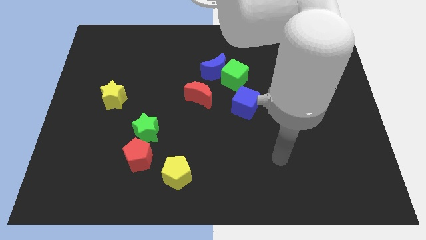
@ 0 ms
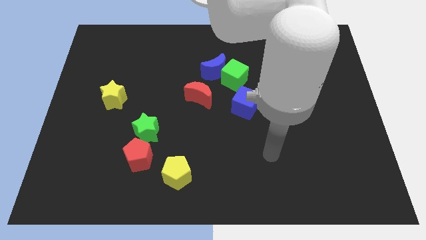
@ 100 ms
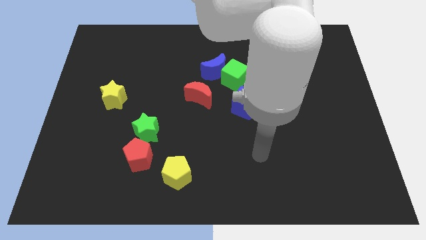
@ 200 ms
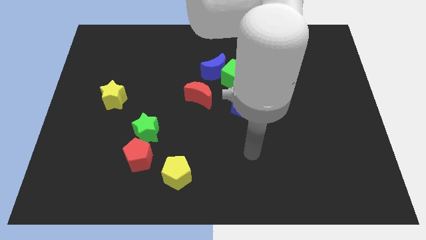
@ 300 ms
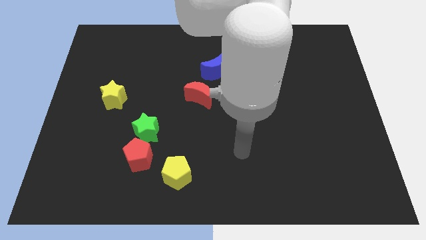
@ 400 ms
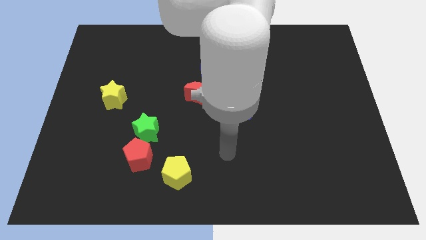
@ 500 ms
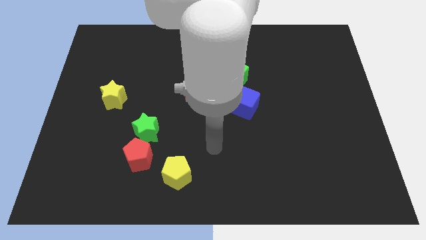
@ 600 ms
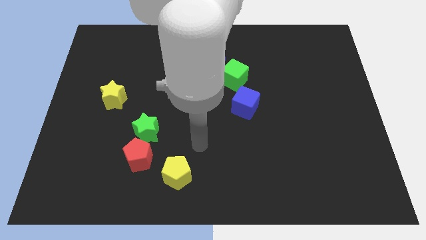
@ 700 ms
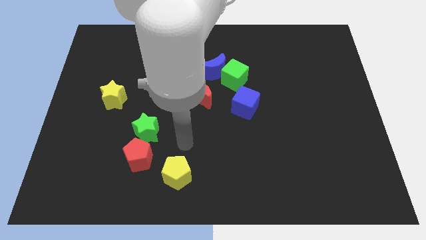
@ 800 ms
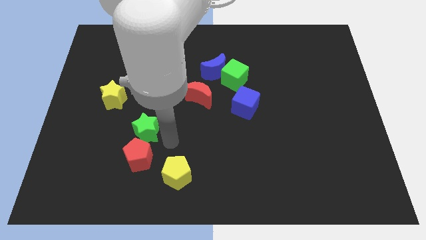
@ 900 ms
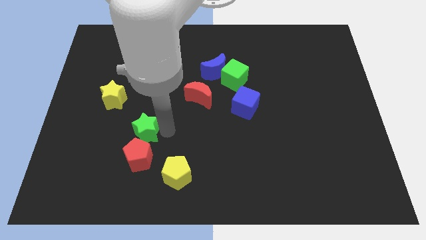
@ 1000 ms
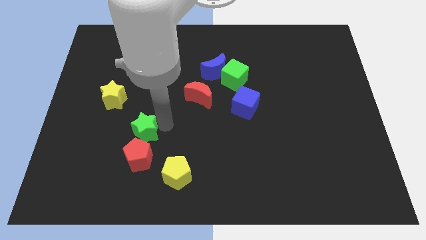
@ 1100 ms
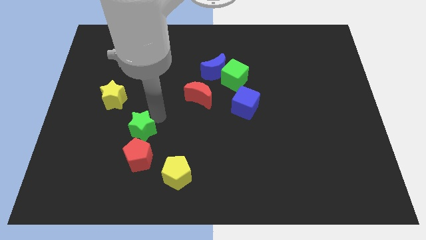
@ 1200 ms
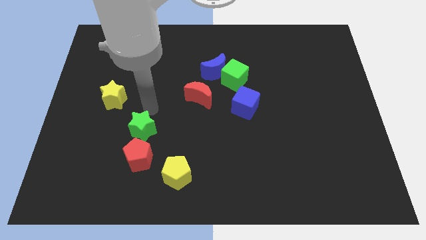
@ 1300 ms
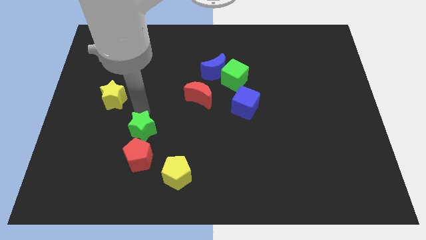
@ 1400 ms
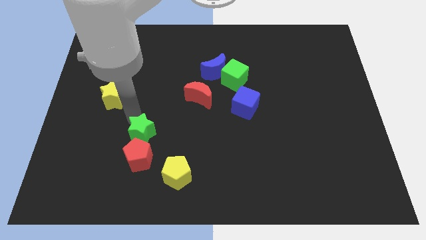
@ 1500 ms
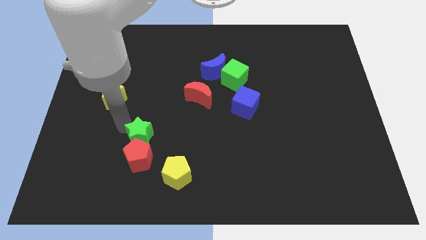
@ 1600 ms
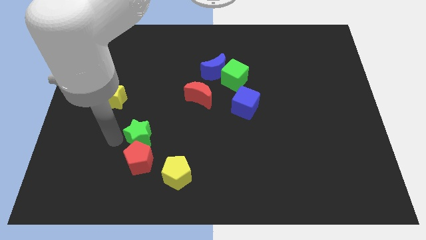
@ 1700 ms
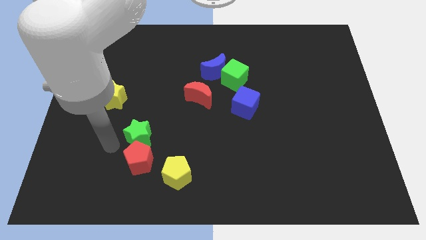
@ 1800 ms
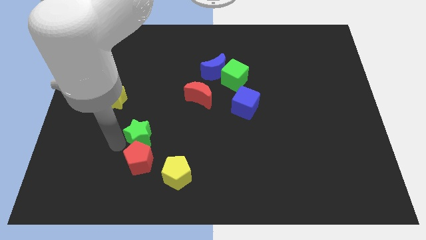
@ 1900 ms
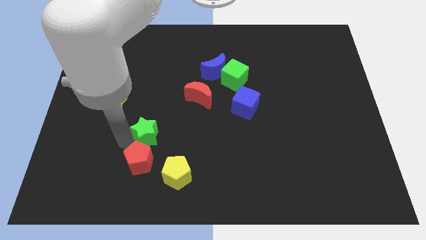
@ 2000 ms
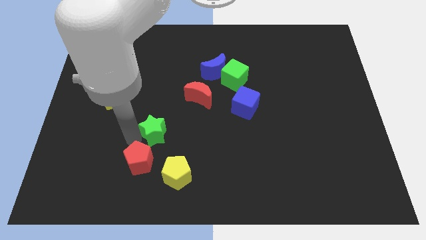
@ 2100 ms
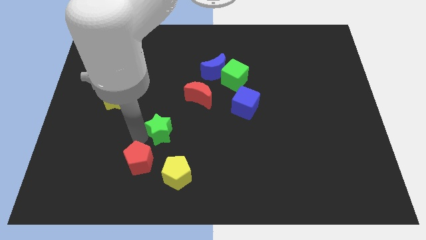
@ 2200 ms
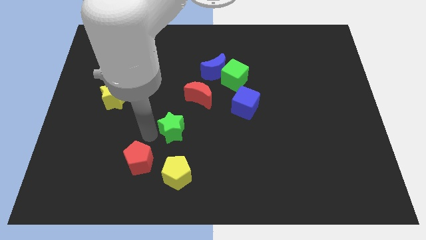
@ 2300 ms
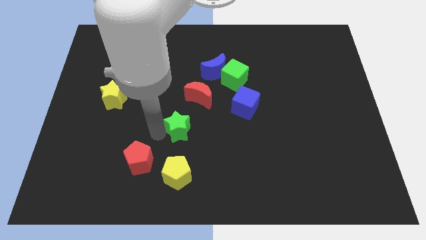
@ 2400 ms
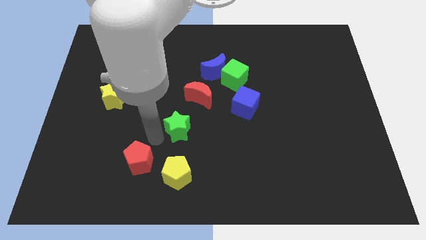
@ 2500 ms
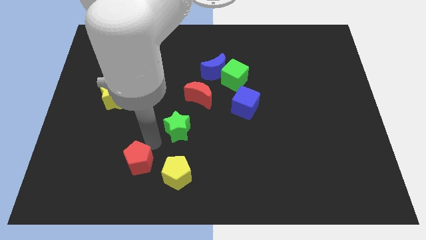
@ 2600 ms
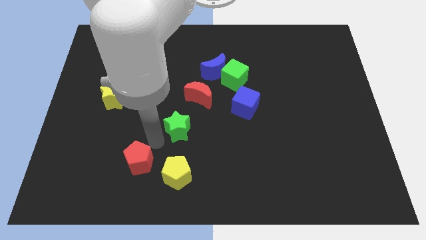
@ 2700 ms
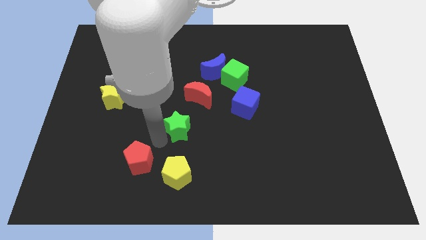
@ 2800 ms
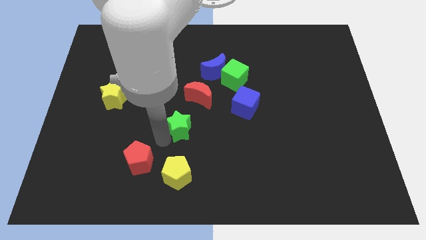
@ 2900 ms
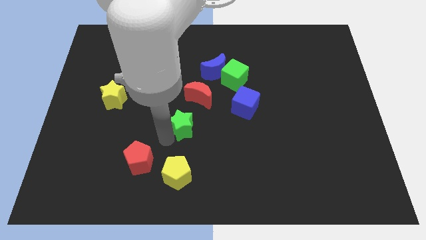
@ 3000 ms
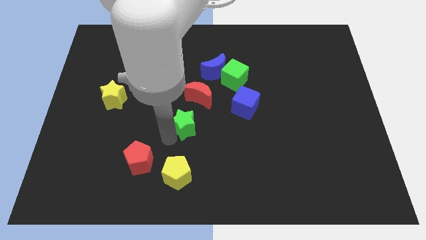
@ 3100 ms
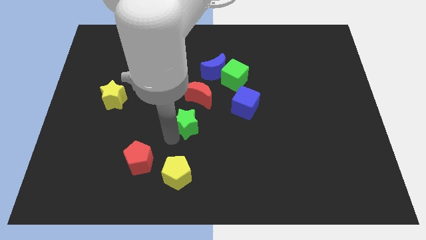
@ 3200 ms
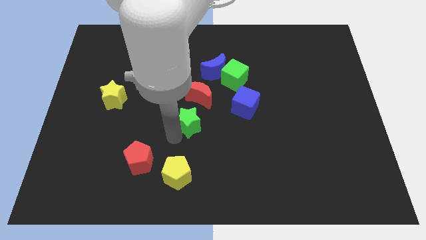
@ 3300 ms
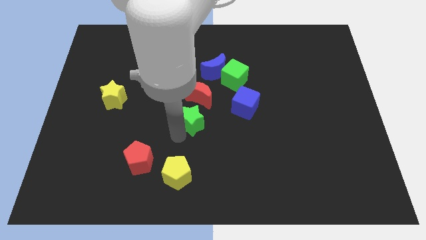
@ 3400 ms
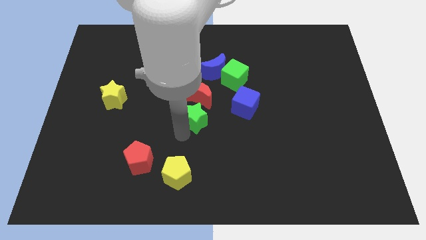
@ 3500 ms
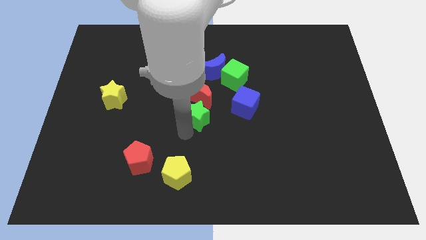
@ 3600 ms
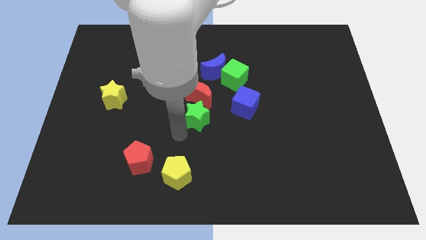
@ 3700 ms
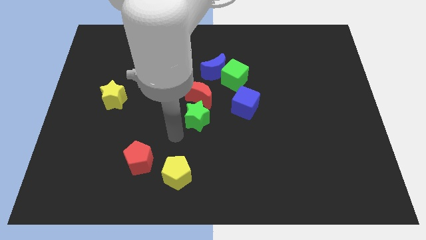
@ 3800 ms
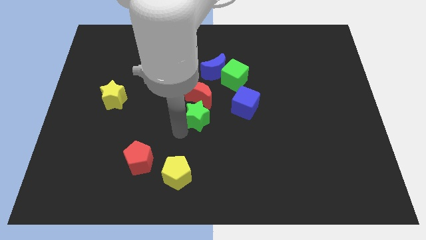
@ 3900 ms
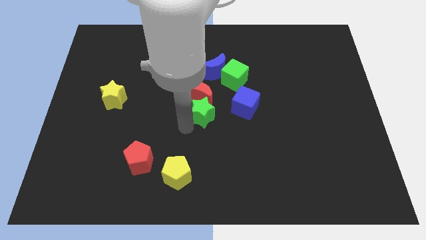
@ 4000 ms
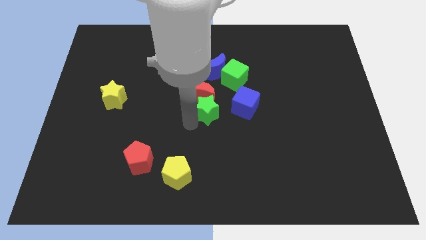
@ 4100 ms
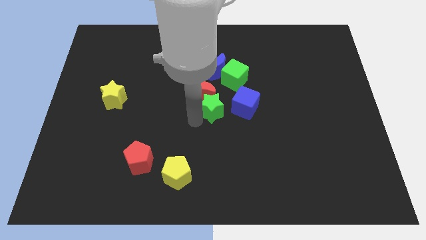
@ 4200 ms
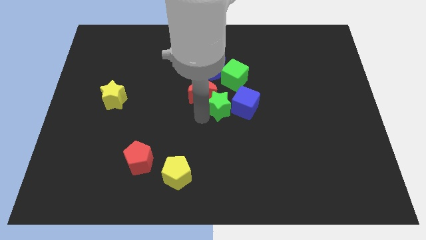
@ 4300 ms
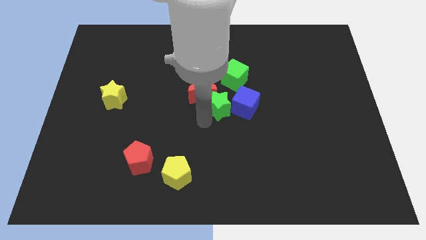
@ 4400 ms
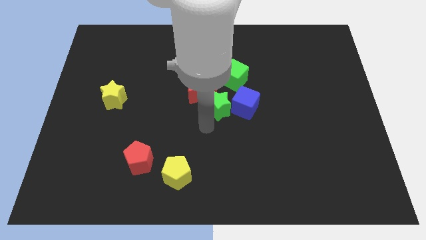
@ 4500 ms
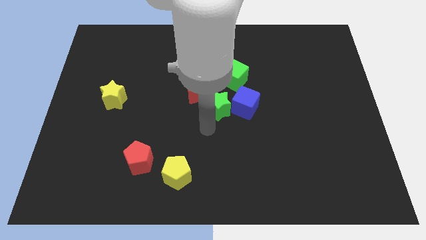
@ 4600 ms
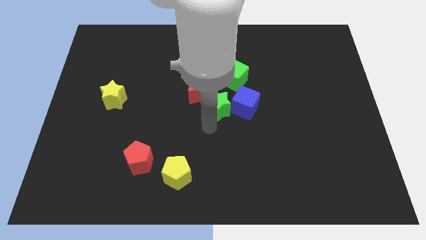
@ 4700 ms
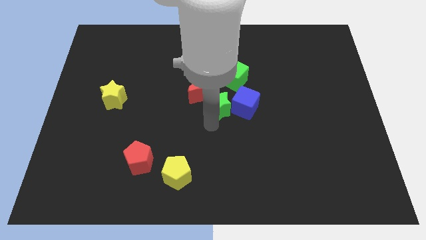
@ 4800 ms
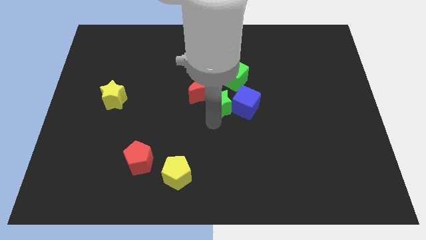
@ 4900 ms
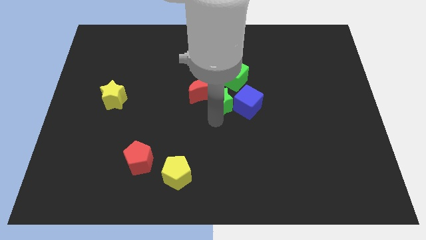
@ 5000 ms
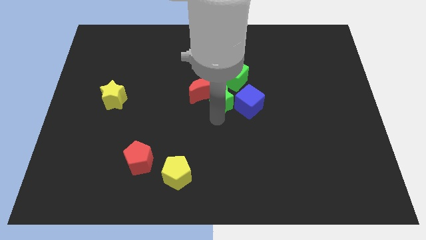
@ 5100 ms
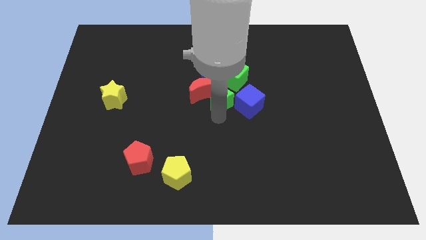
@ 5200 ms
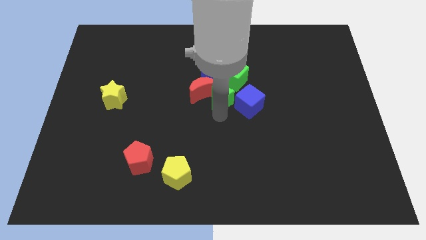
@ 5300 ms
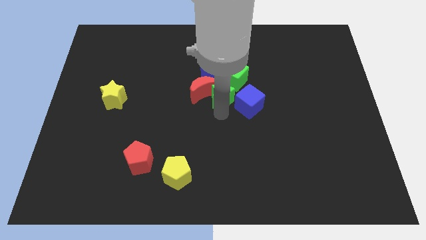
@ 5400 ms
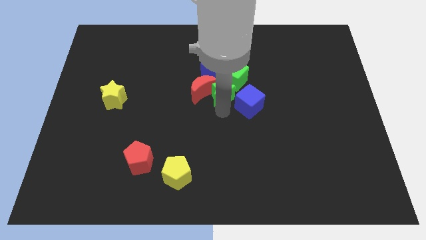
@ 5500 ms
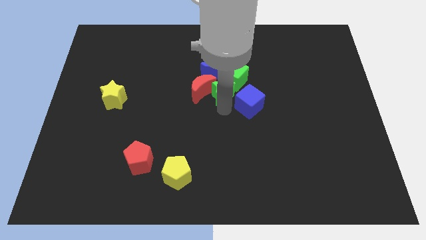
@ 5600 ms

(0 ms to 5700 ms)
push the green star close to the green cube

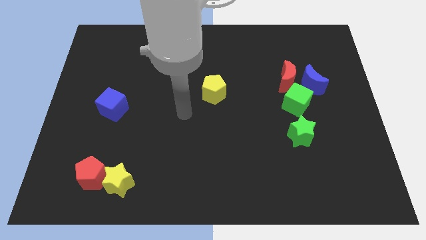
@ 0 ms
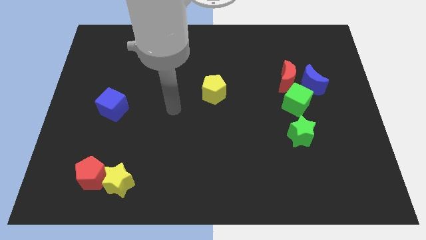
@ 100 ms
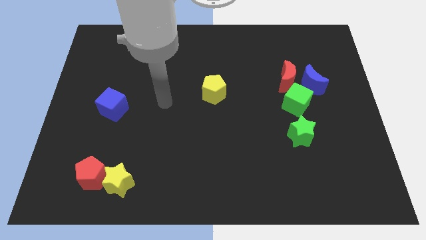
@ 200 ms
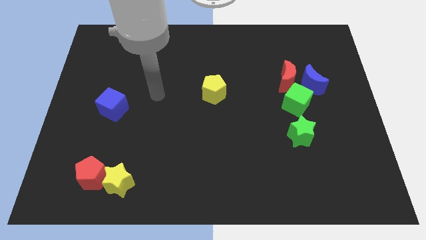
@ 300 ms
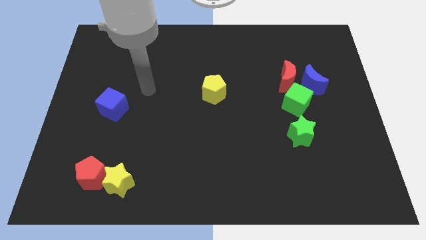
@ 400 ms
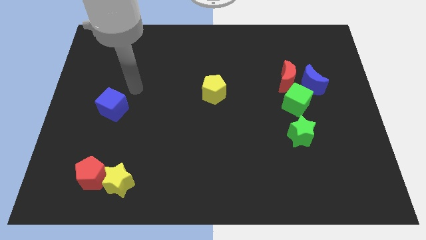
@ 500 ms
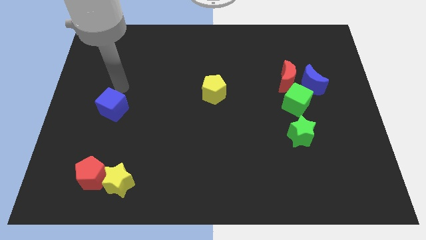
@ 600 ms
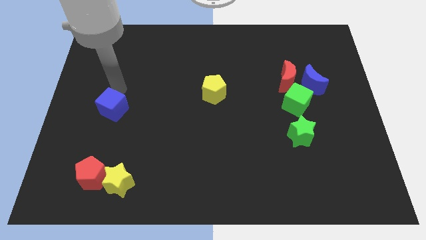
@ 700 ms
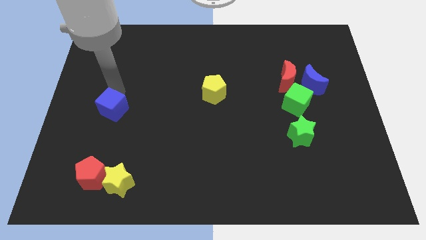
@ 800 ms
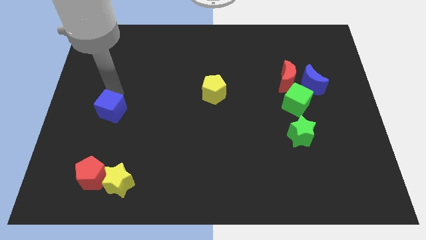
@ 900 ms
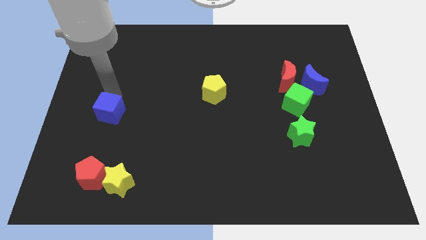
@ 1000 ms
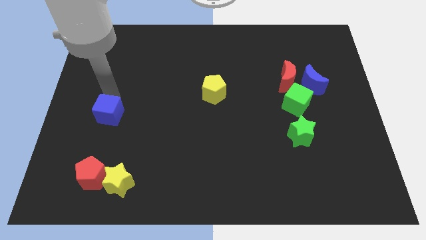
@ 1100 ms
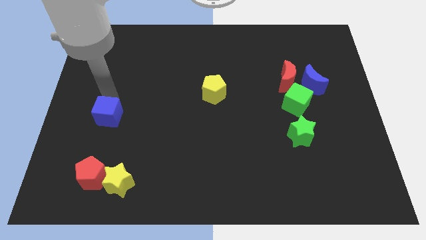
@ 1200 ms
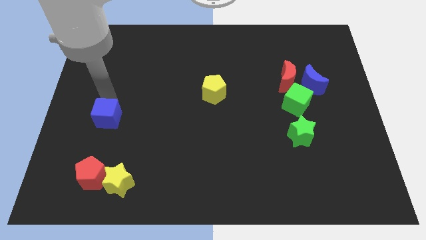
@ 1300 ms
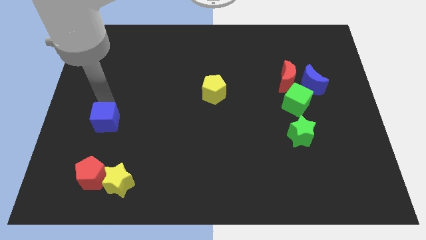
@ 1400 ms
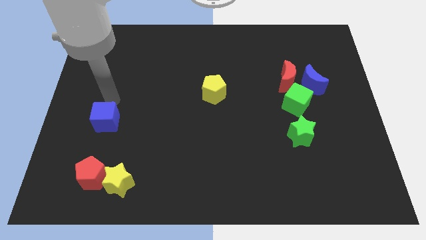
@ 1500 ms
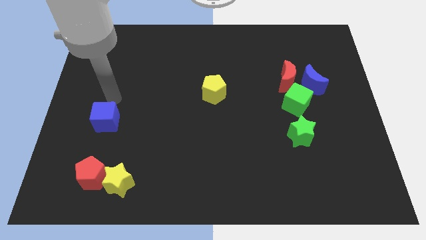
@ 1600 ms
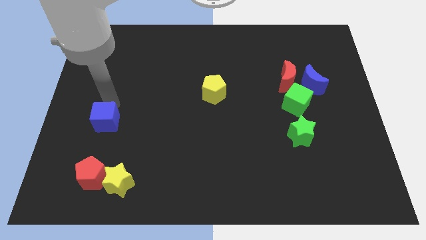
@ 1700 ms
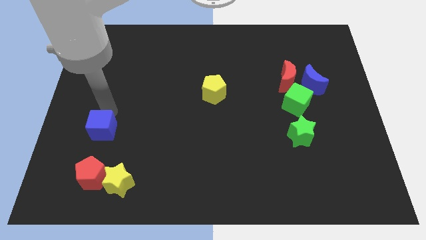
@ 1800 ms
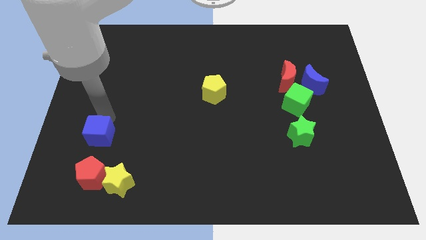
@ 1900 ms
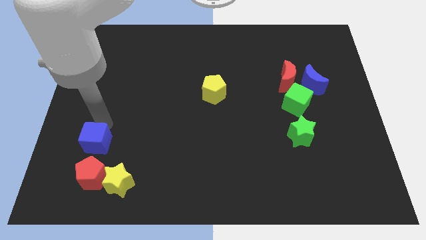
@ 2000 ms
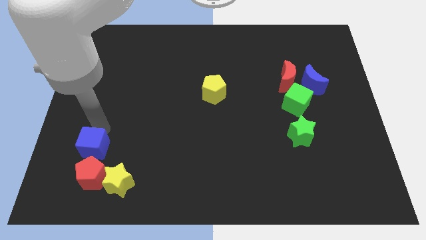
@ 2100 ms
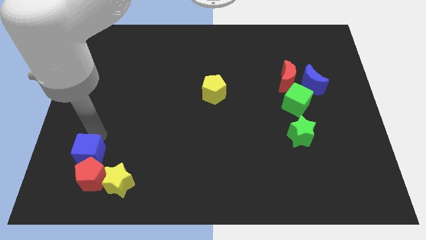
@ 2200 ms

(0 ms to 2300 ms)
push the blue cube next to the red pentagon
